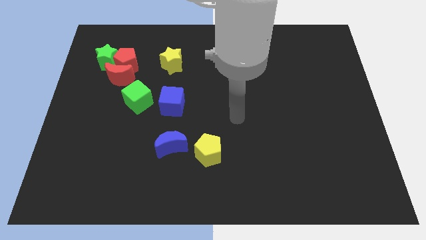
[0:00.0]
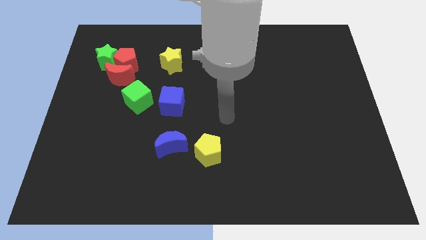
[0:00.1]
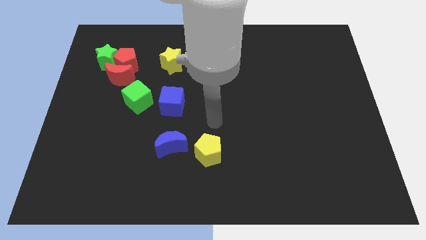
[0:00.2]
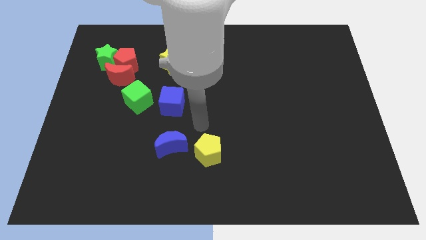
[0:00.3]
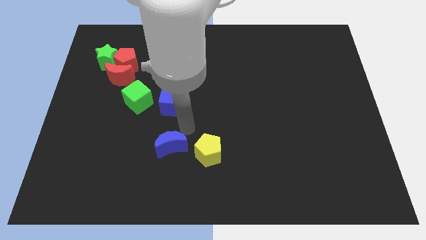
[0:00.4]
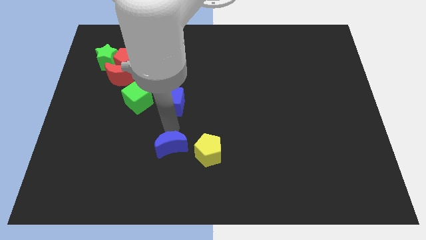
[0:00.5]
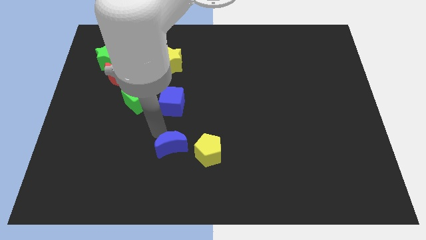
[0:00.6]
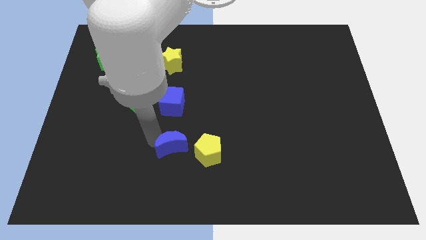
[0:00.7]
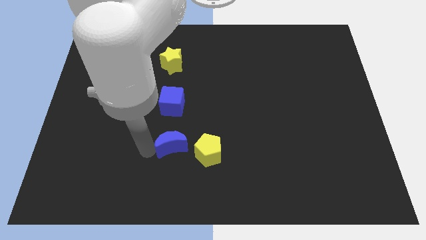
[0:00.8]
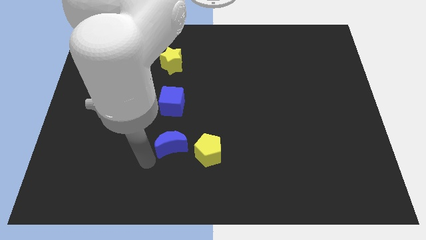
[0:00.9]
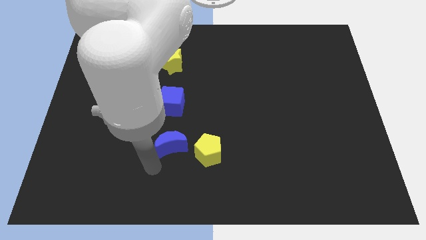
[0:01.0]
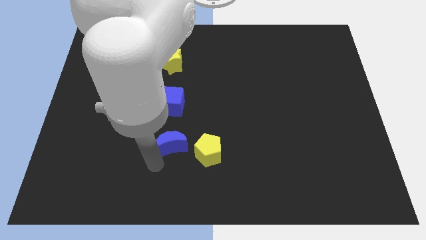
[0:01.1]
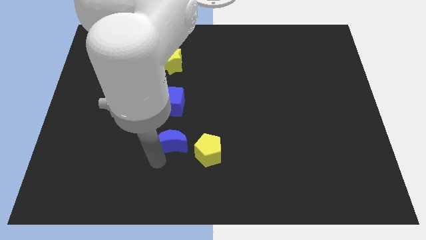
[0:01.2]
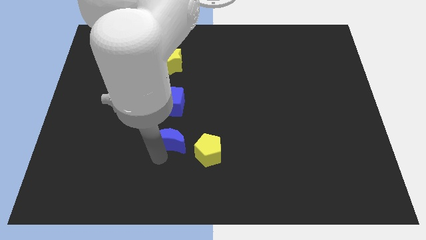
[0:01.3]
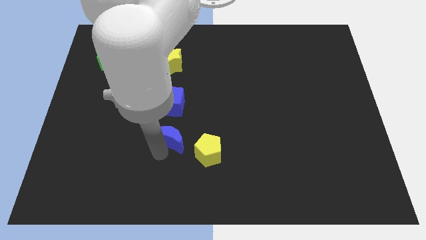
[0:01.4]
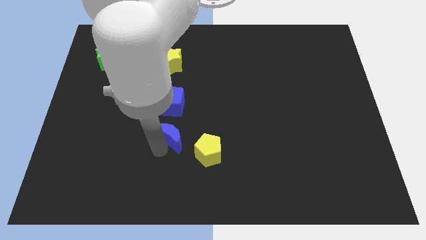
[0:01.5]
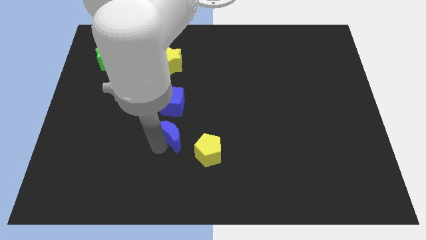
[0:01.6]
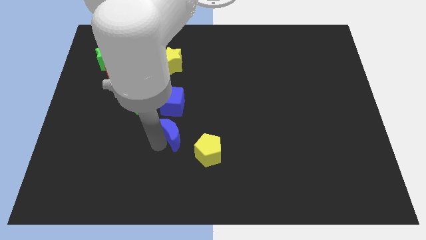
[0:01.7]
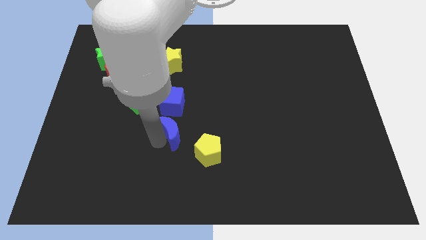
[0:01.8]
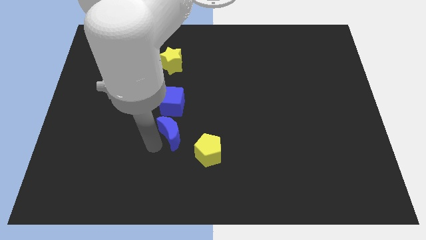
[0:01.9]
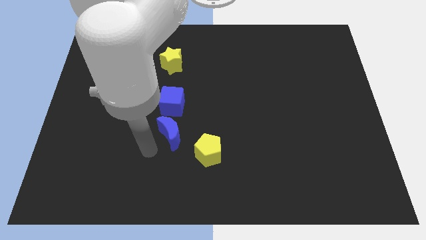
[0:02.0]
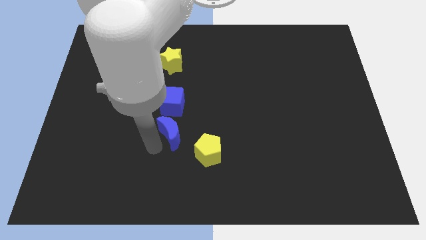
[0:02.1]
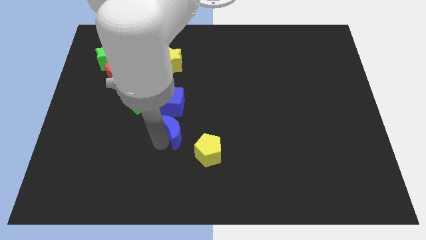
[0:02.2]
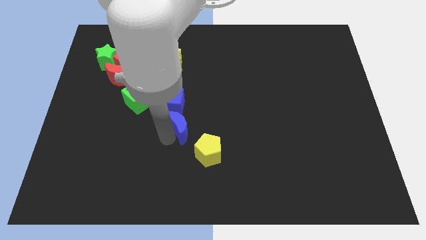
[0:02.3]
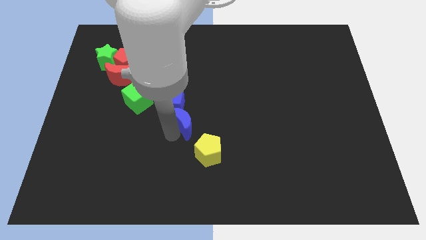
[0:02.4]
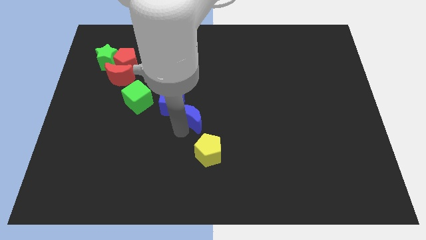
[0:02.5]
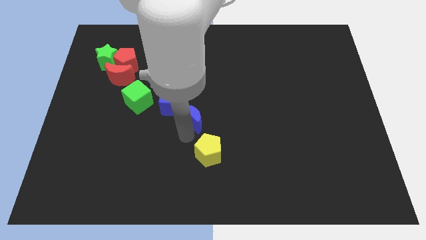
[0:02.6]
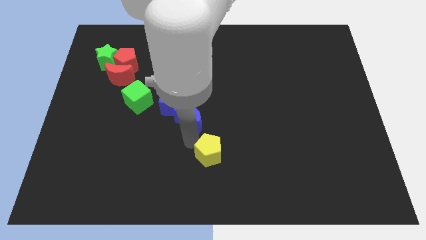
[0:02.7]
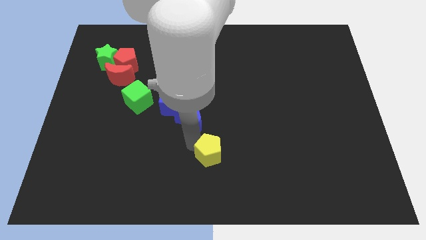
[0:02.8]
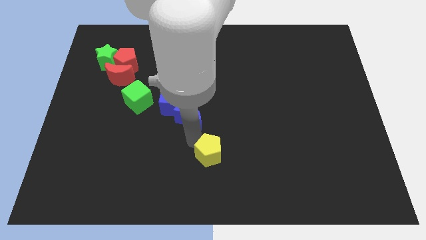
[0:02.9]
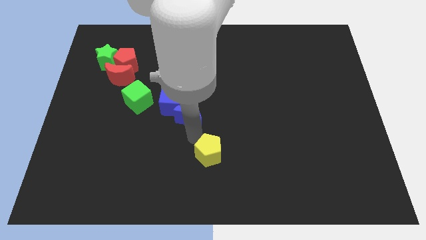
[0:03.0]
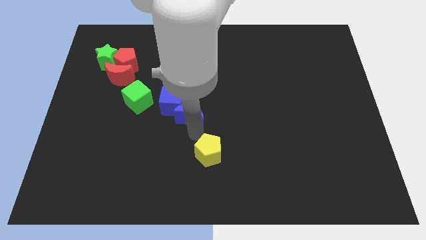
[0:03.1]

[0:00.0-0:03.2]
move the blue moon up a little bit

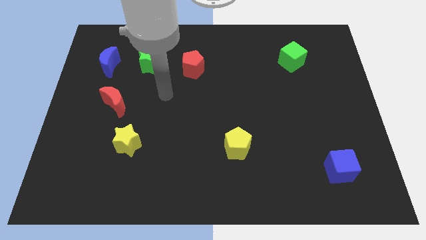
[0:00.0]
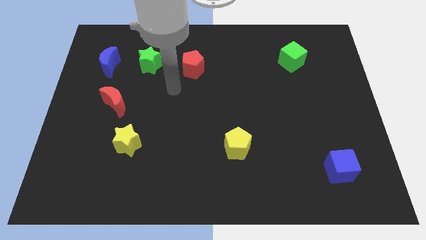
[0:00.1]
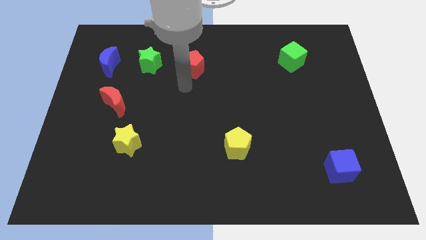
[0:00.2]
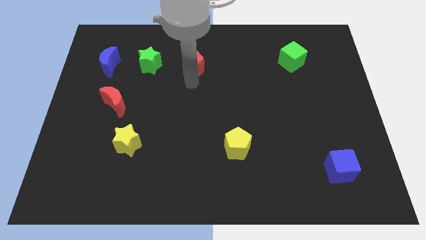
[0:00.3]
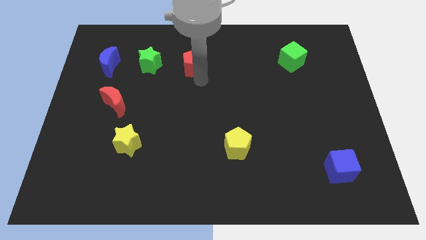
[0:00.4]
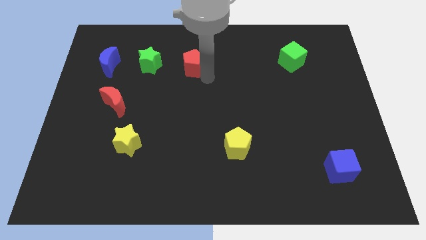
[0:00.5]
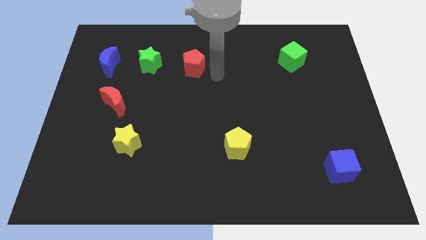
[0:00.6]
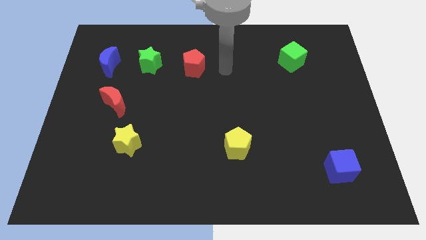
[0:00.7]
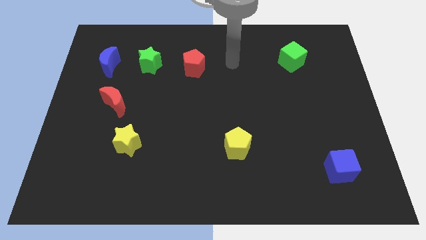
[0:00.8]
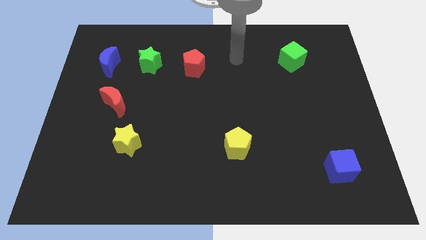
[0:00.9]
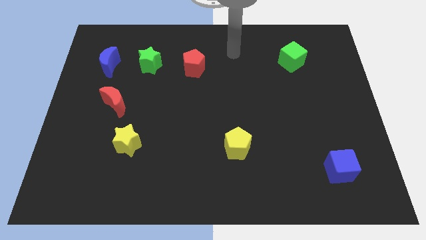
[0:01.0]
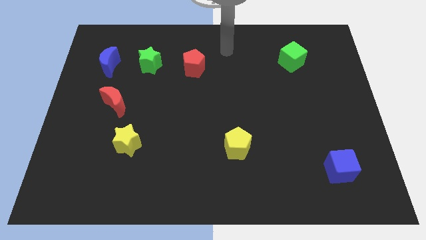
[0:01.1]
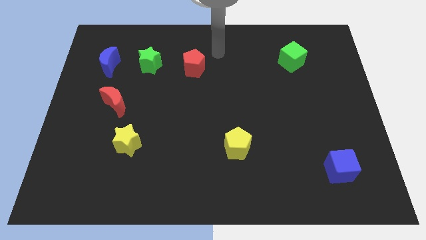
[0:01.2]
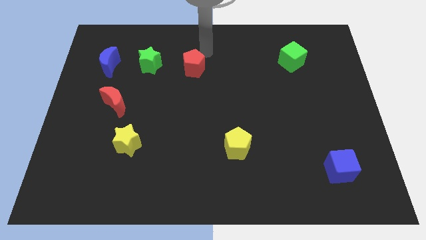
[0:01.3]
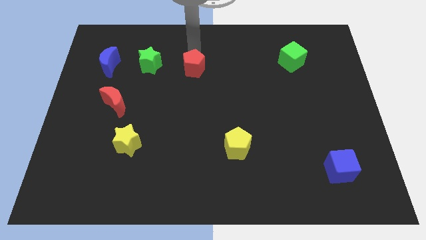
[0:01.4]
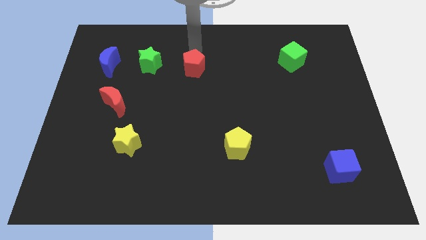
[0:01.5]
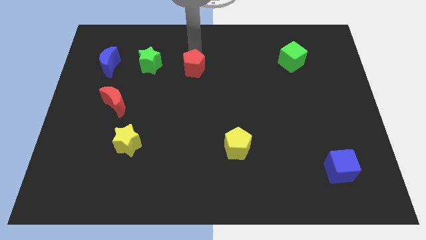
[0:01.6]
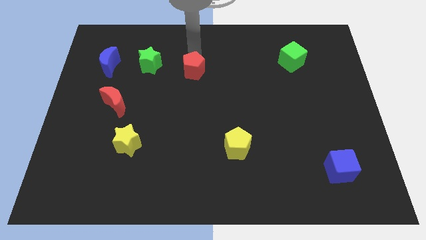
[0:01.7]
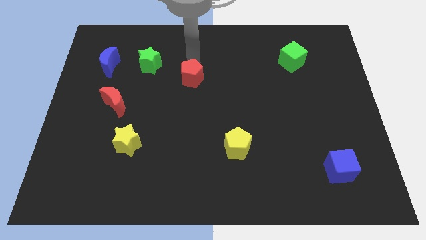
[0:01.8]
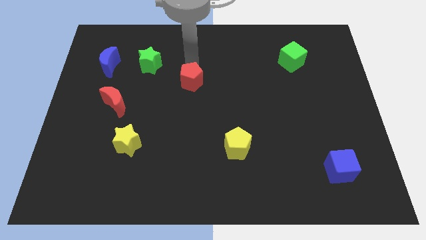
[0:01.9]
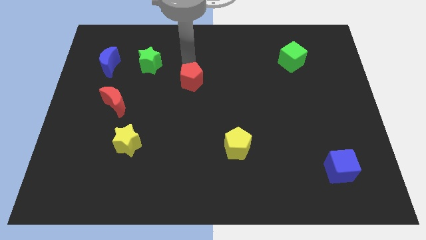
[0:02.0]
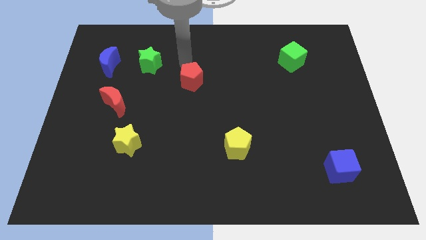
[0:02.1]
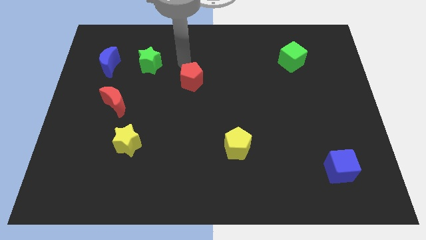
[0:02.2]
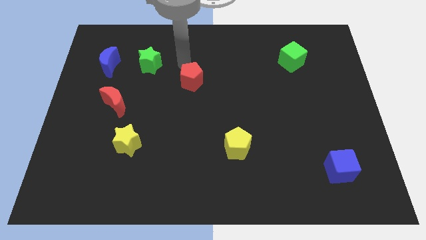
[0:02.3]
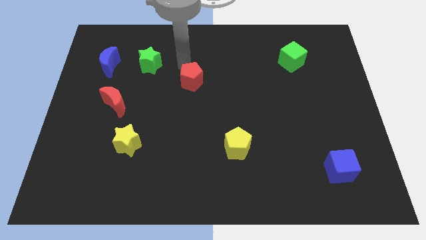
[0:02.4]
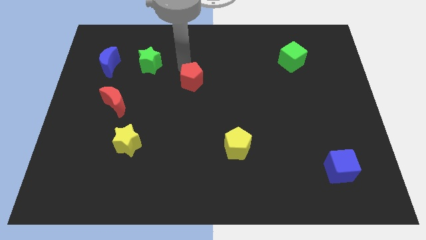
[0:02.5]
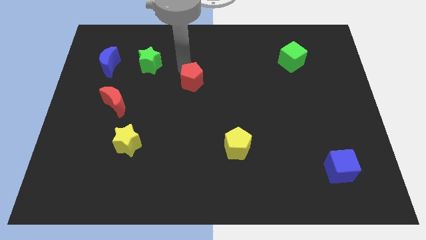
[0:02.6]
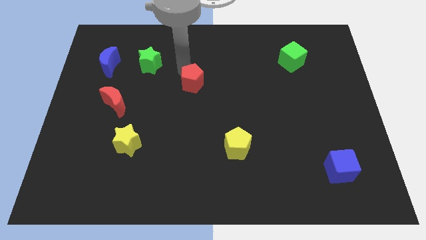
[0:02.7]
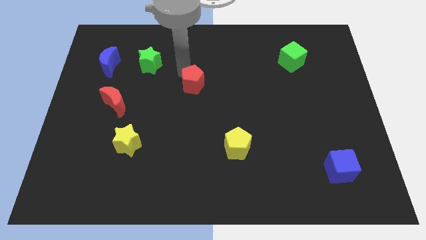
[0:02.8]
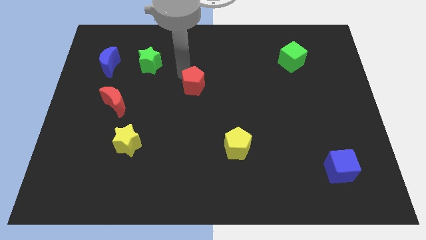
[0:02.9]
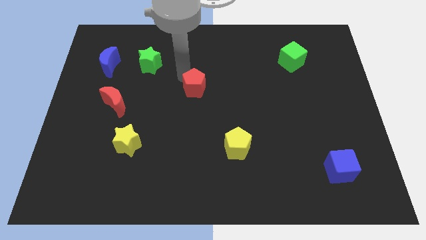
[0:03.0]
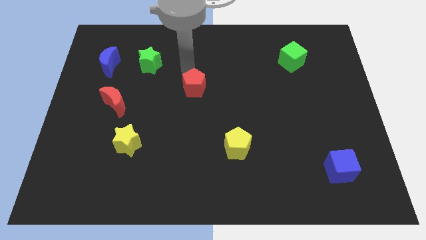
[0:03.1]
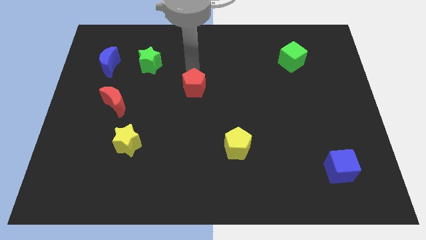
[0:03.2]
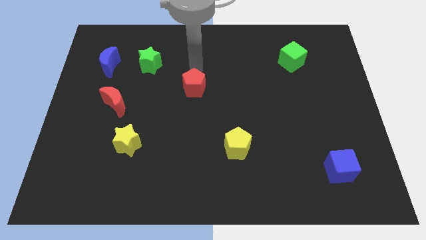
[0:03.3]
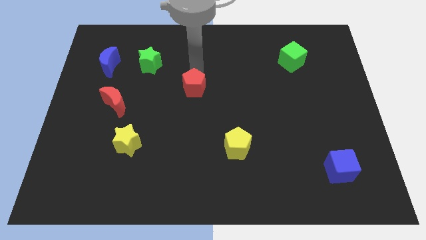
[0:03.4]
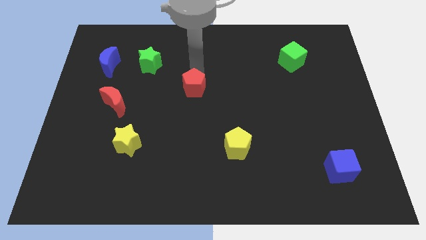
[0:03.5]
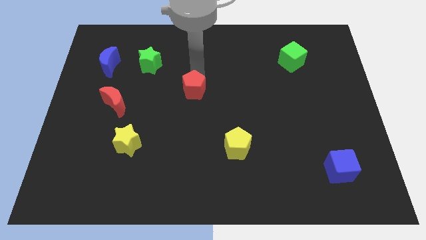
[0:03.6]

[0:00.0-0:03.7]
slightly push the red pentagon down

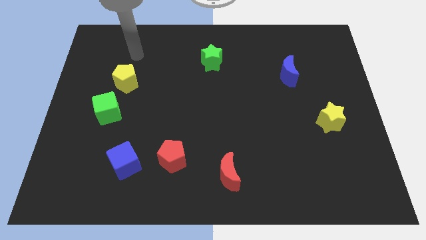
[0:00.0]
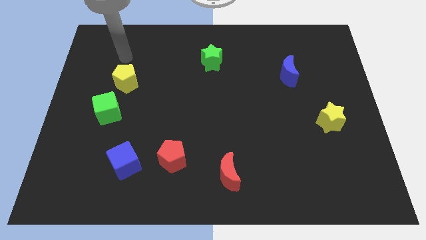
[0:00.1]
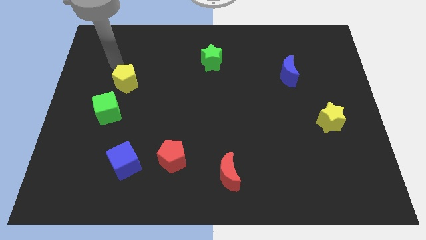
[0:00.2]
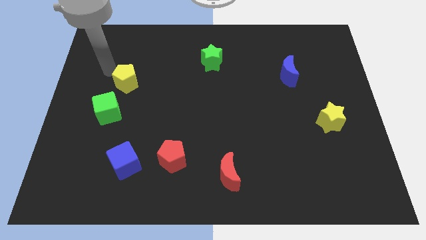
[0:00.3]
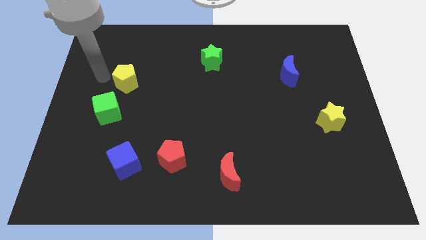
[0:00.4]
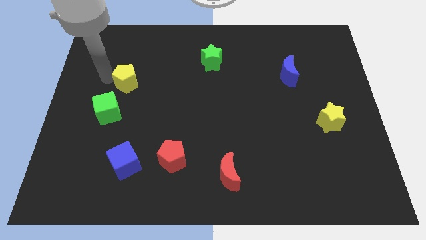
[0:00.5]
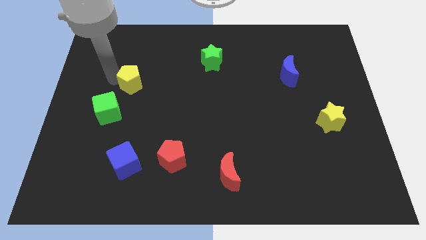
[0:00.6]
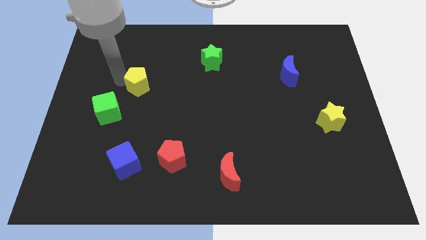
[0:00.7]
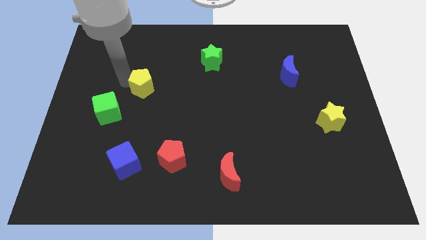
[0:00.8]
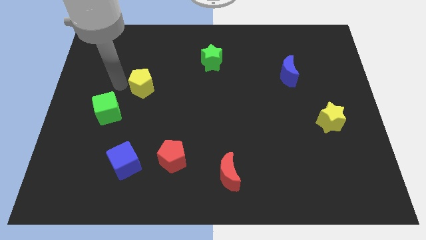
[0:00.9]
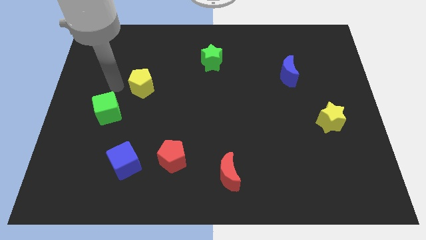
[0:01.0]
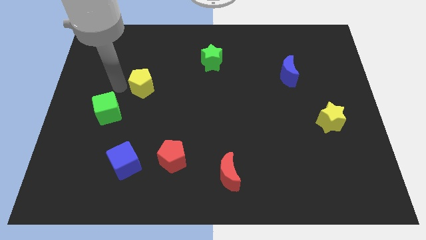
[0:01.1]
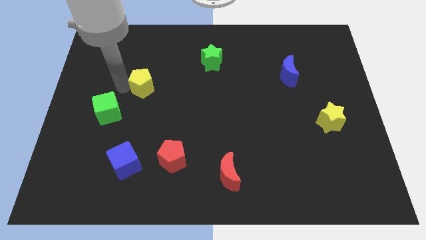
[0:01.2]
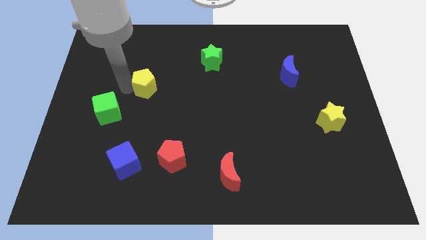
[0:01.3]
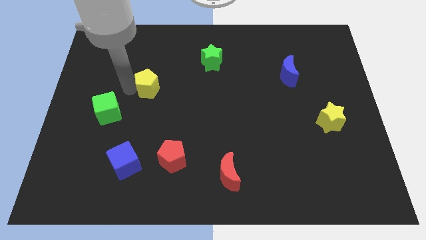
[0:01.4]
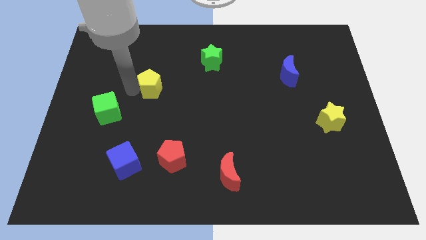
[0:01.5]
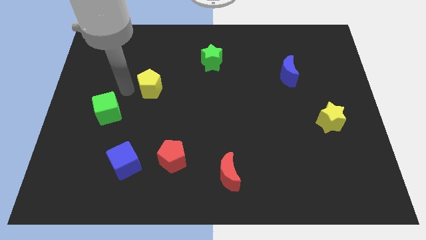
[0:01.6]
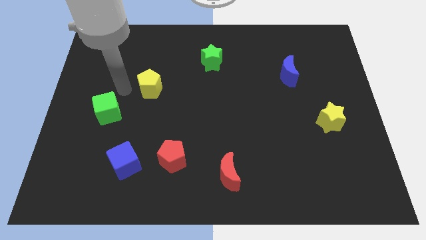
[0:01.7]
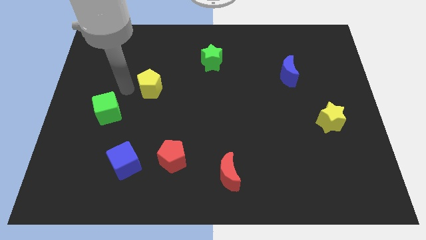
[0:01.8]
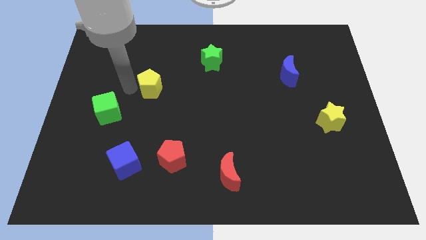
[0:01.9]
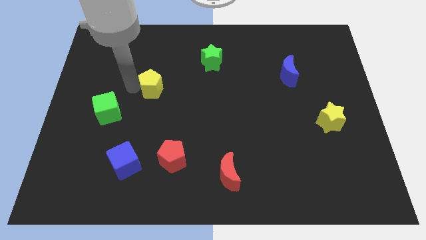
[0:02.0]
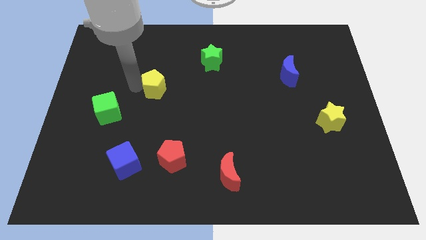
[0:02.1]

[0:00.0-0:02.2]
slide the yellow pentagon somewhat right
